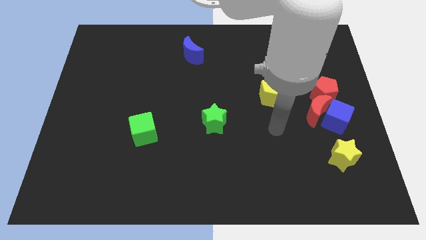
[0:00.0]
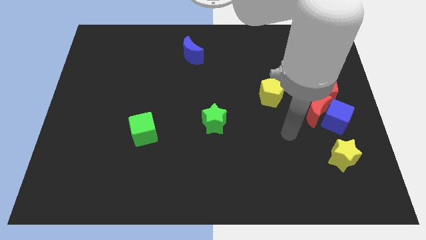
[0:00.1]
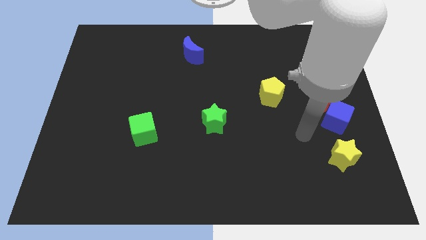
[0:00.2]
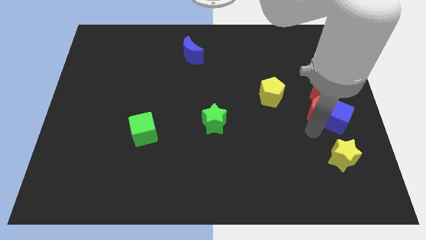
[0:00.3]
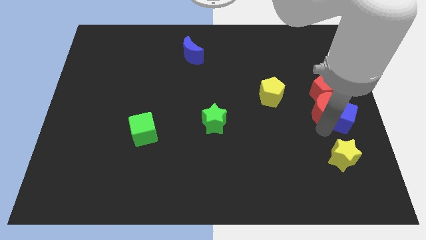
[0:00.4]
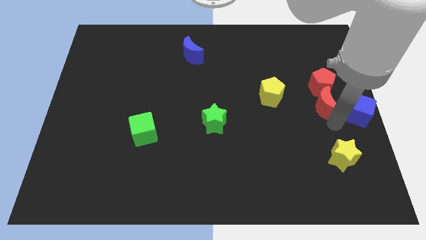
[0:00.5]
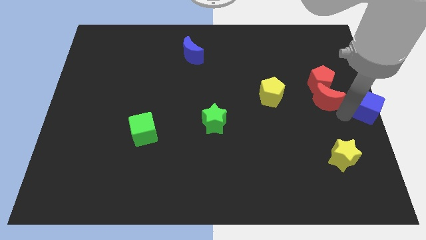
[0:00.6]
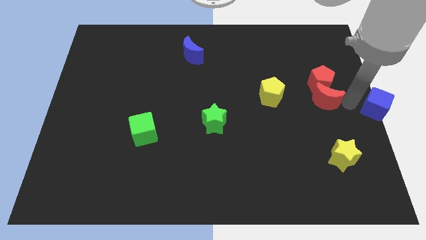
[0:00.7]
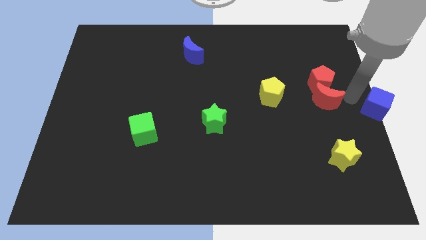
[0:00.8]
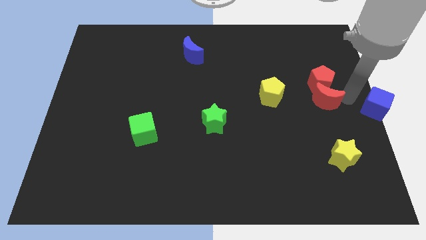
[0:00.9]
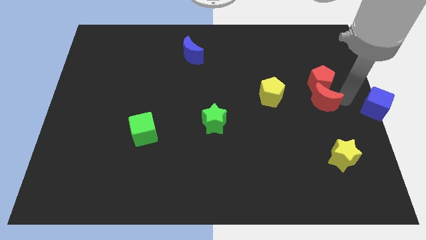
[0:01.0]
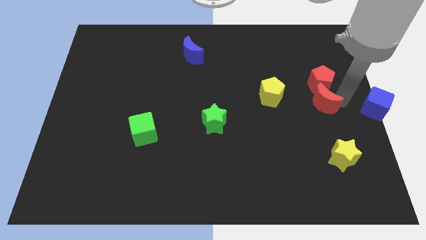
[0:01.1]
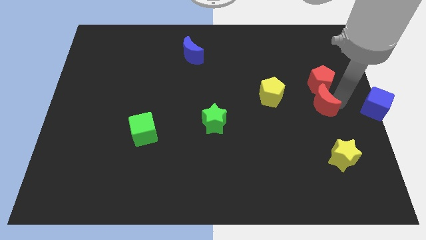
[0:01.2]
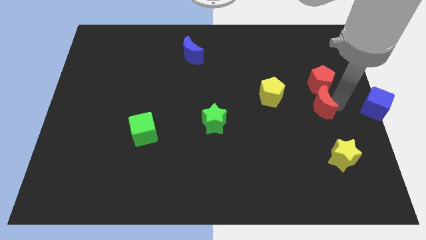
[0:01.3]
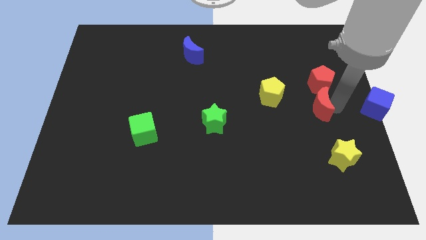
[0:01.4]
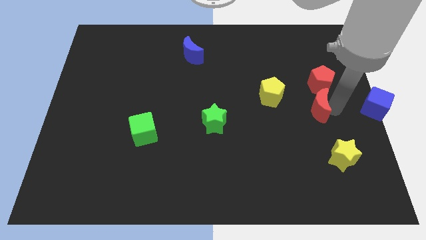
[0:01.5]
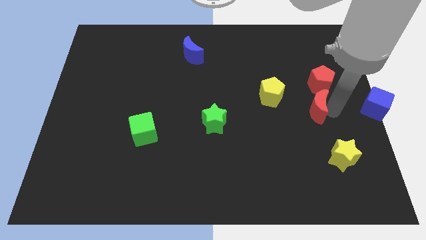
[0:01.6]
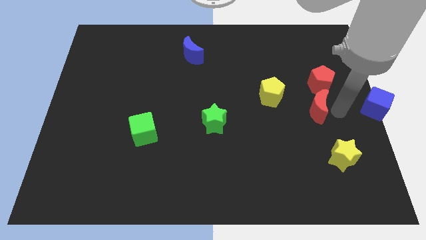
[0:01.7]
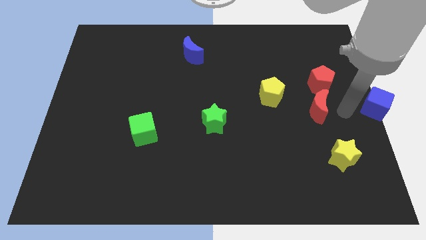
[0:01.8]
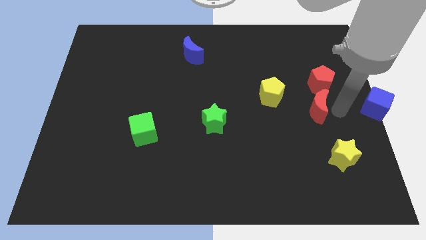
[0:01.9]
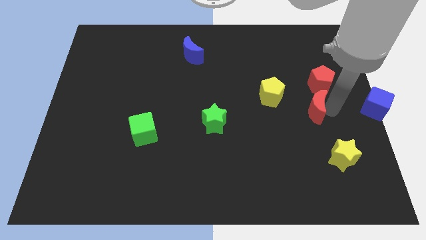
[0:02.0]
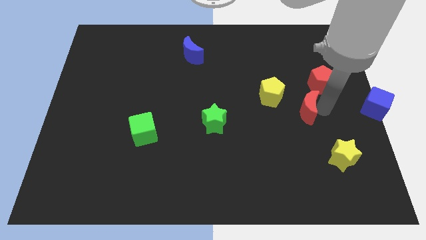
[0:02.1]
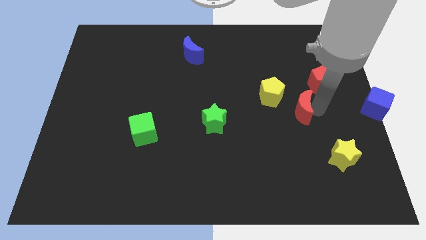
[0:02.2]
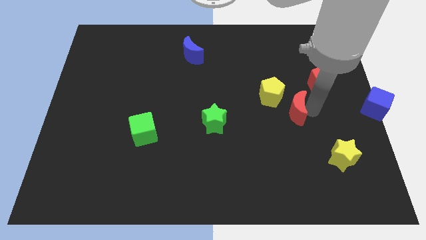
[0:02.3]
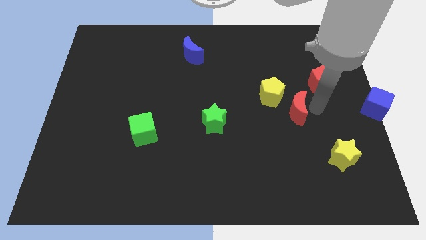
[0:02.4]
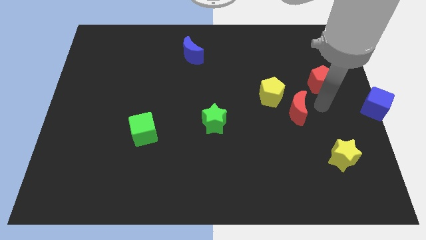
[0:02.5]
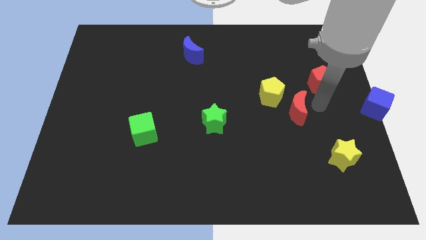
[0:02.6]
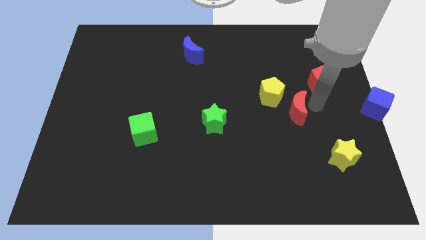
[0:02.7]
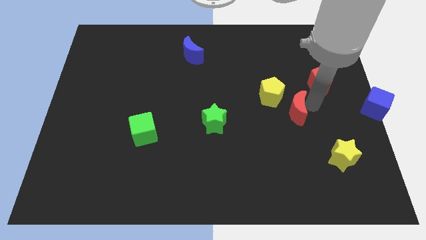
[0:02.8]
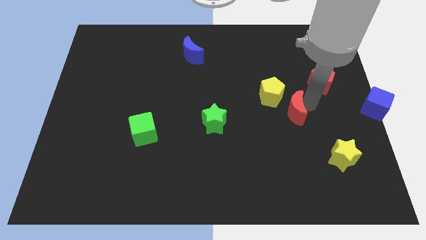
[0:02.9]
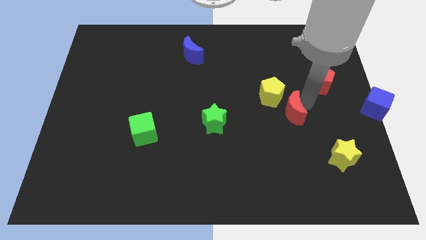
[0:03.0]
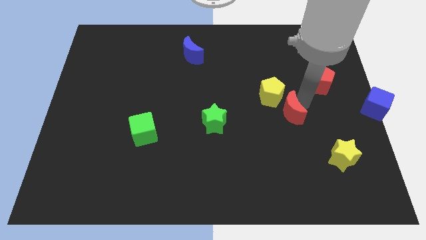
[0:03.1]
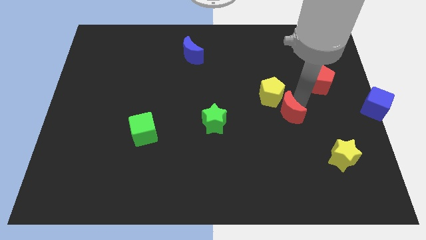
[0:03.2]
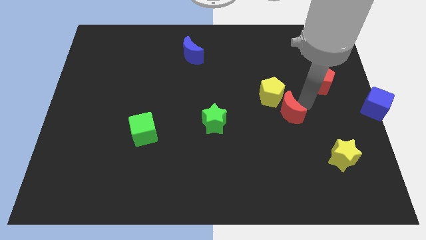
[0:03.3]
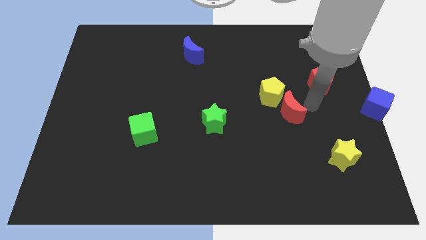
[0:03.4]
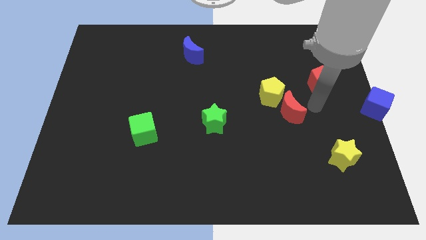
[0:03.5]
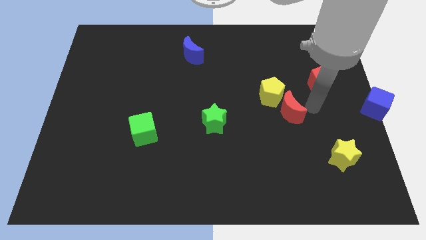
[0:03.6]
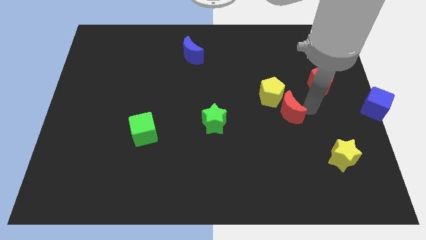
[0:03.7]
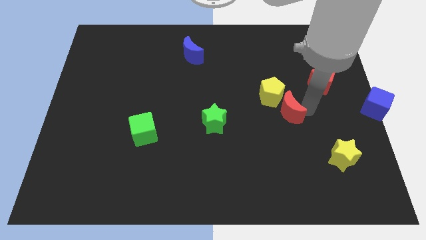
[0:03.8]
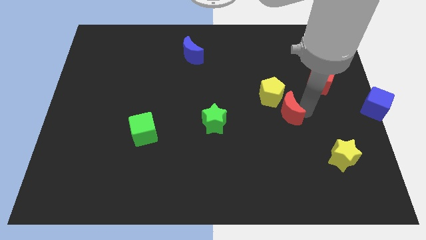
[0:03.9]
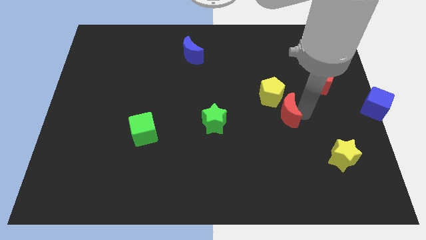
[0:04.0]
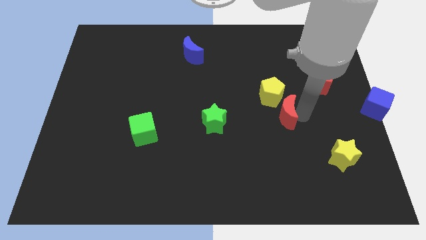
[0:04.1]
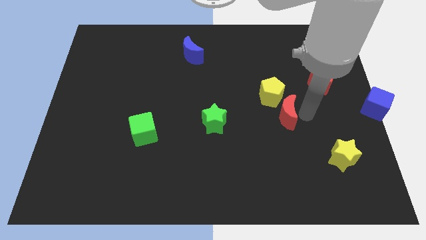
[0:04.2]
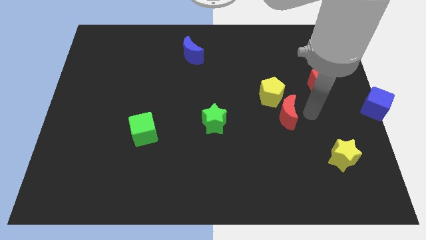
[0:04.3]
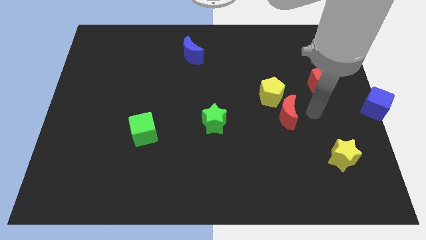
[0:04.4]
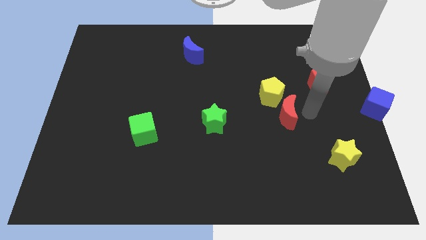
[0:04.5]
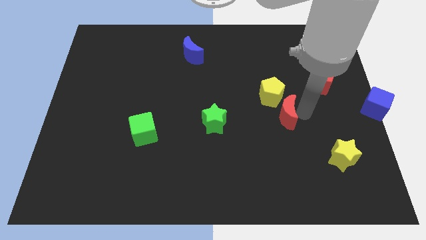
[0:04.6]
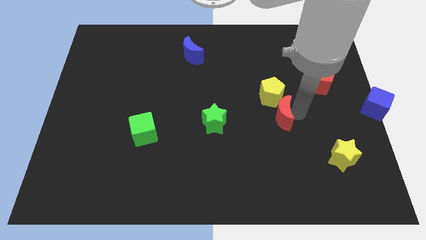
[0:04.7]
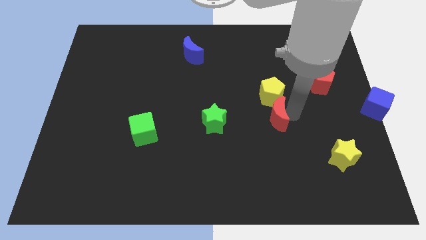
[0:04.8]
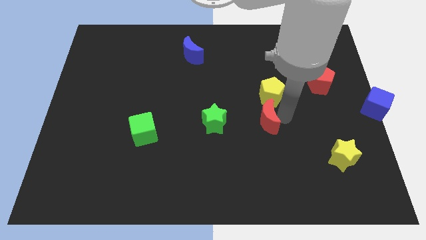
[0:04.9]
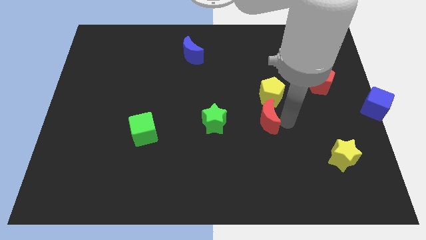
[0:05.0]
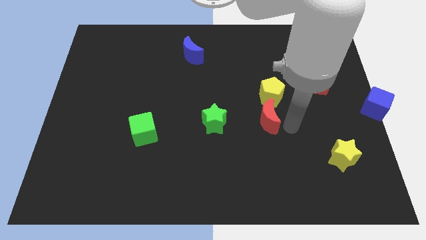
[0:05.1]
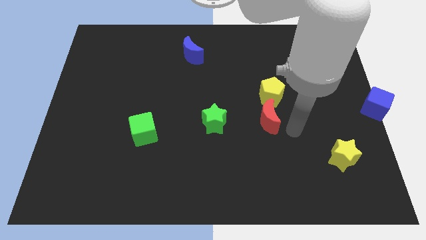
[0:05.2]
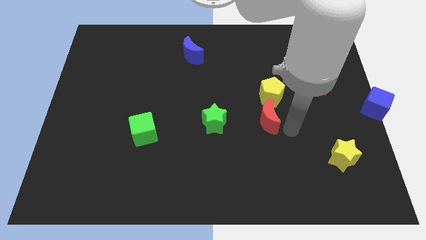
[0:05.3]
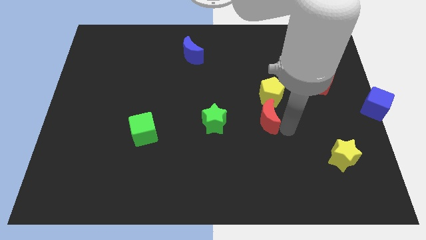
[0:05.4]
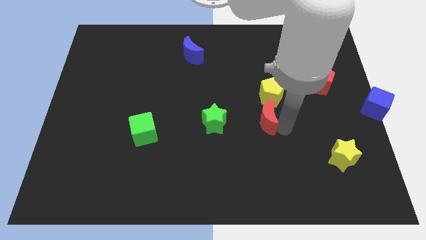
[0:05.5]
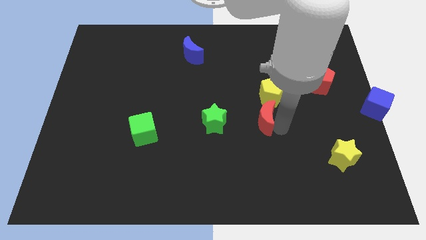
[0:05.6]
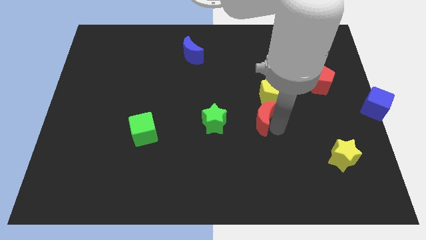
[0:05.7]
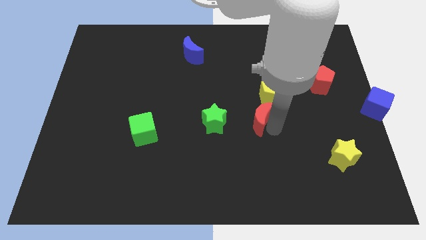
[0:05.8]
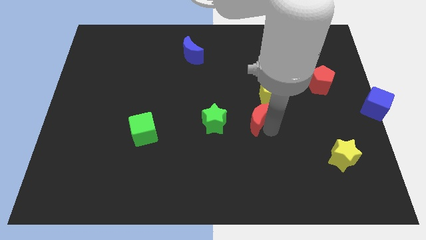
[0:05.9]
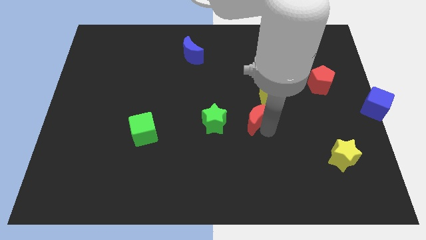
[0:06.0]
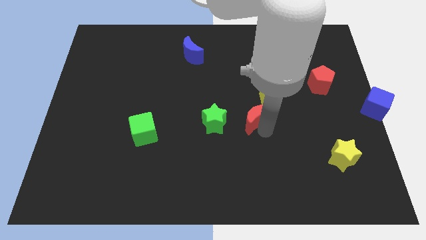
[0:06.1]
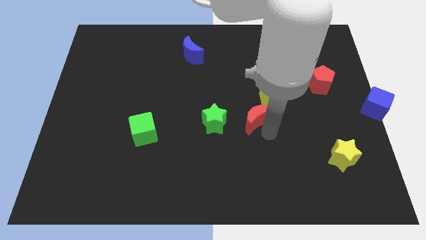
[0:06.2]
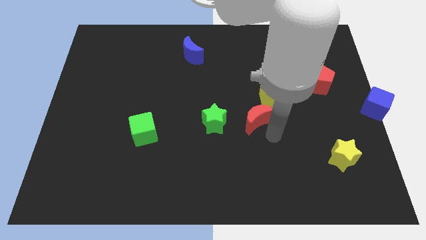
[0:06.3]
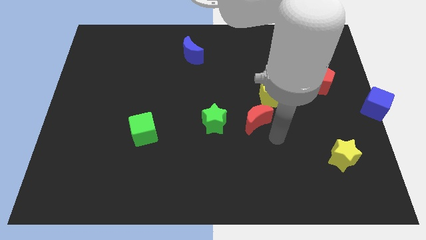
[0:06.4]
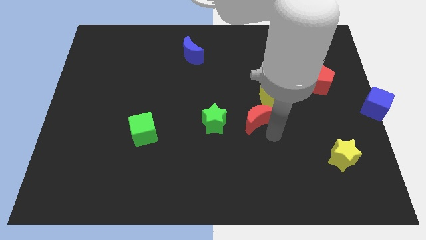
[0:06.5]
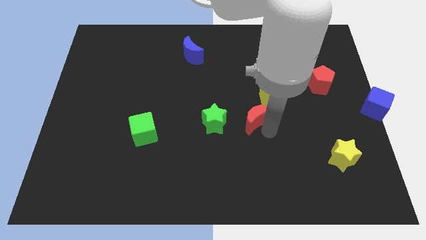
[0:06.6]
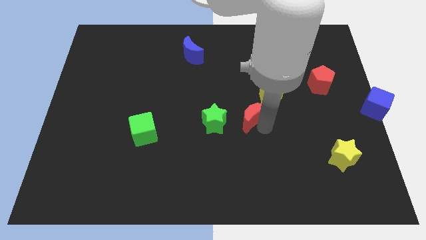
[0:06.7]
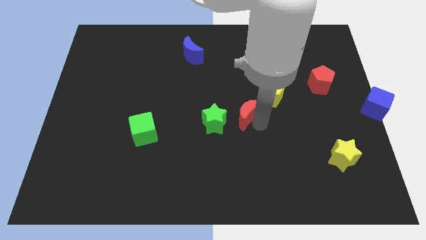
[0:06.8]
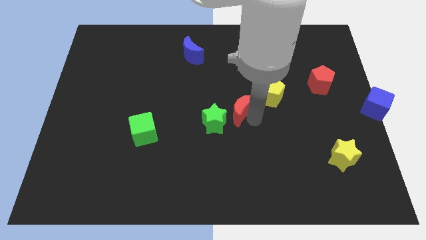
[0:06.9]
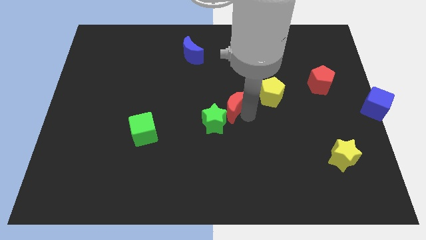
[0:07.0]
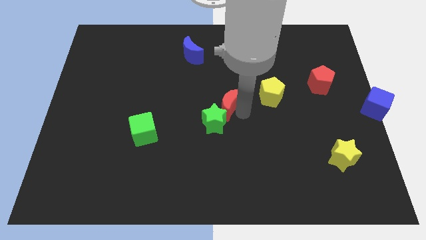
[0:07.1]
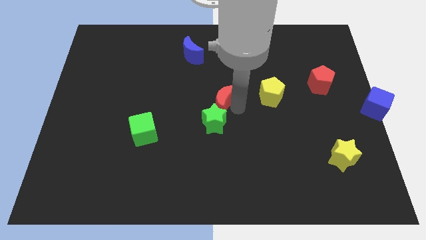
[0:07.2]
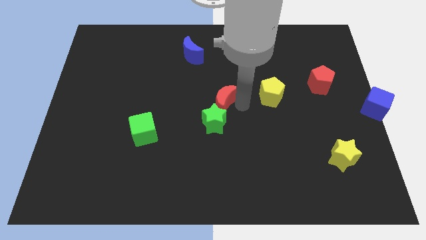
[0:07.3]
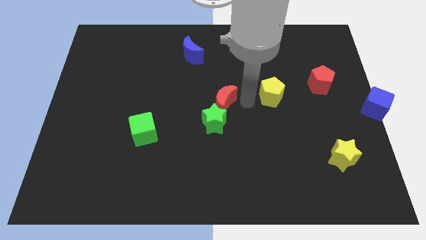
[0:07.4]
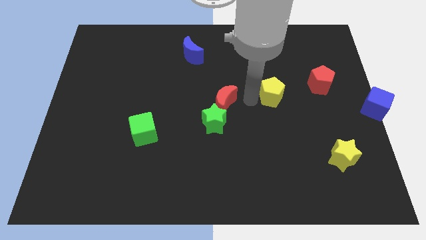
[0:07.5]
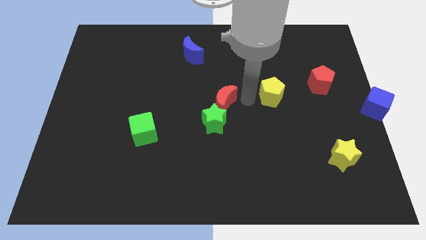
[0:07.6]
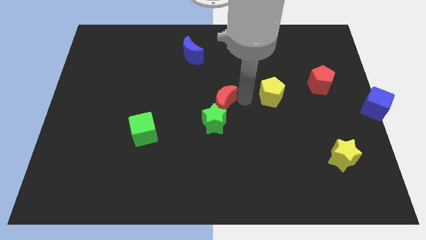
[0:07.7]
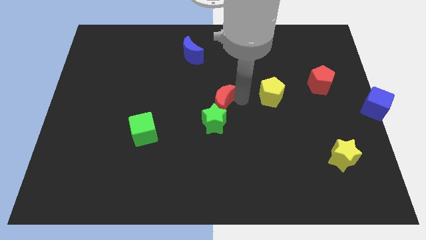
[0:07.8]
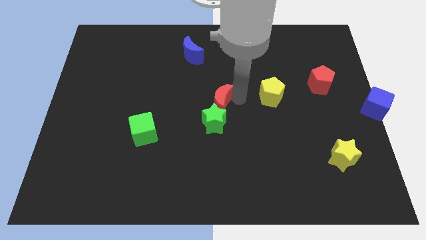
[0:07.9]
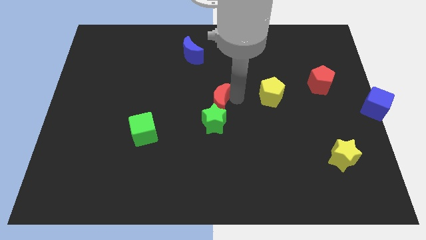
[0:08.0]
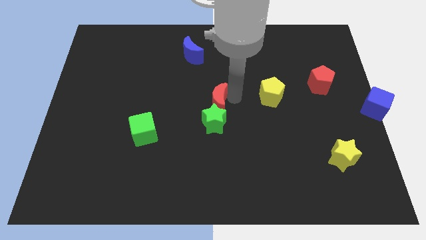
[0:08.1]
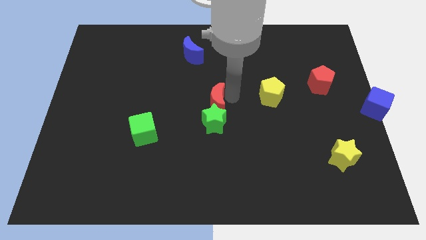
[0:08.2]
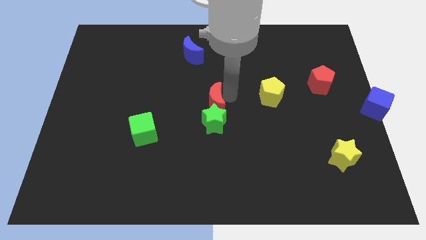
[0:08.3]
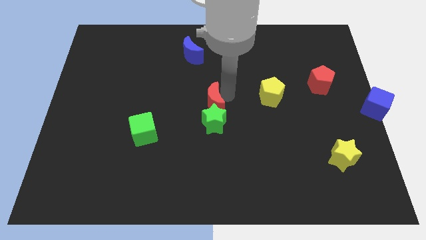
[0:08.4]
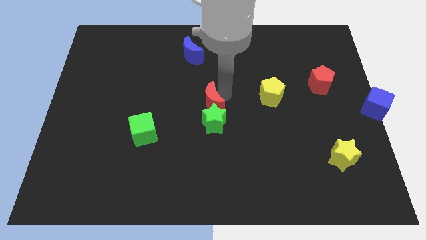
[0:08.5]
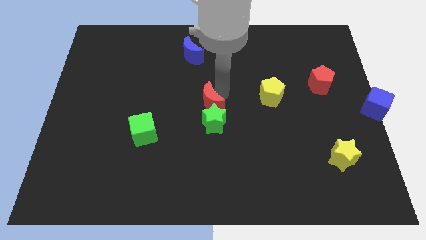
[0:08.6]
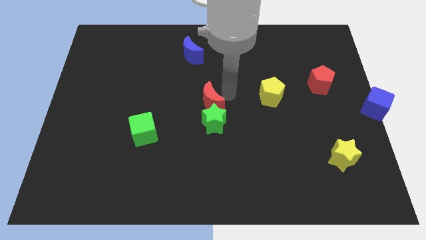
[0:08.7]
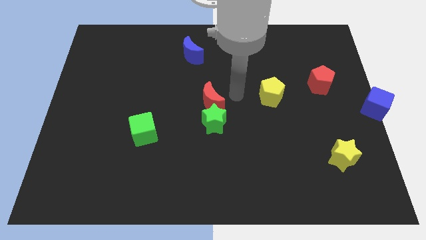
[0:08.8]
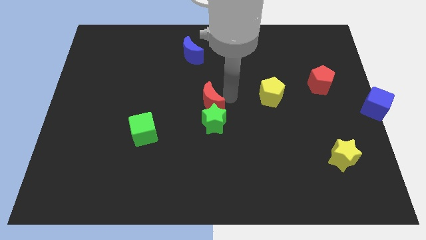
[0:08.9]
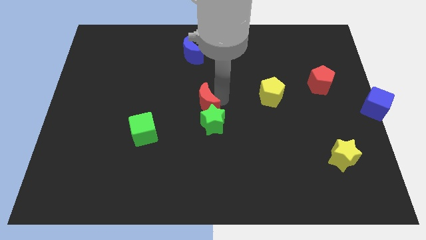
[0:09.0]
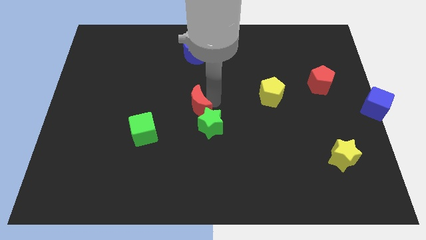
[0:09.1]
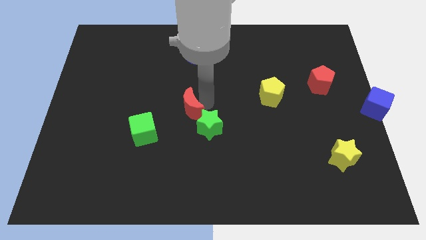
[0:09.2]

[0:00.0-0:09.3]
slide the red moon to the top right side of the green cube
